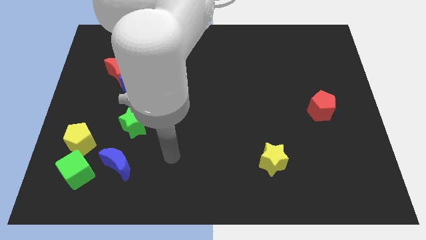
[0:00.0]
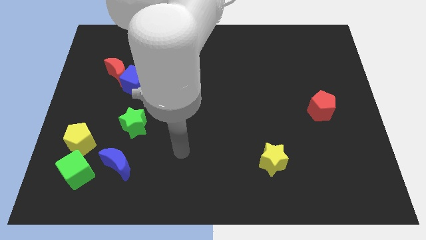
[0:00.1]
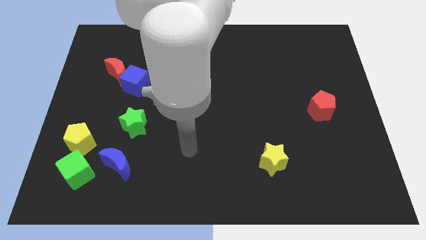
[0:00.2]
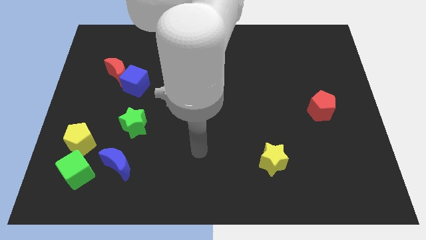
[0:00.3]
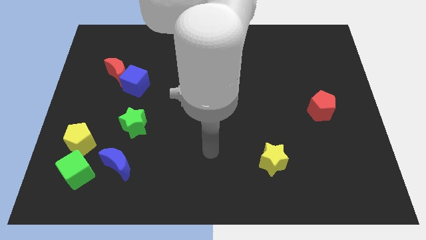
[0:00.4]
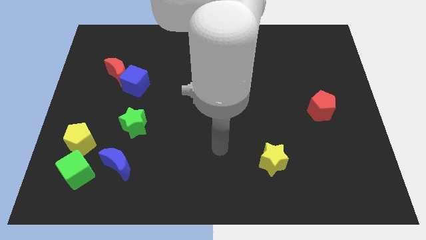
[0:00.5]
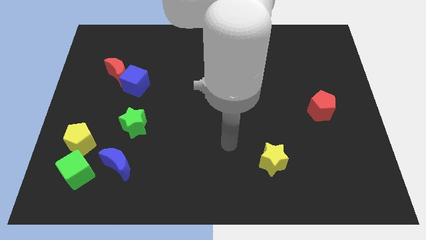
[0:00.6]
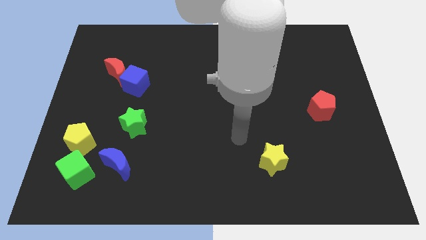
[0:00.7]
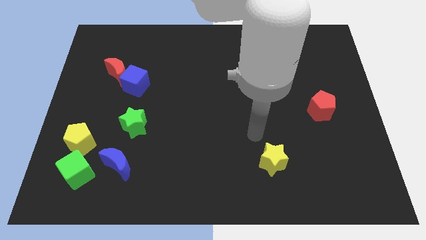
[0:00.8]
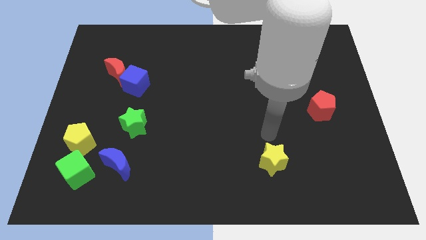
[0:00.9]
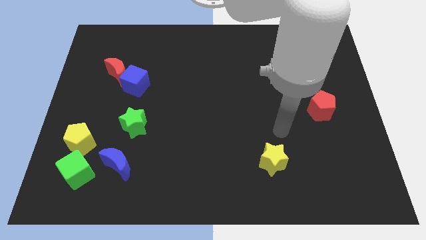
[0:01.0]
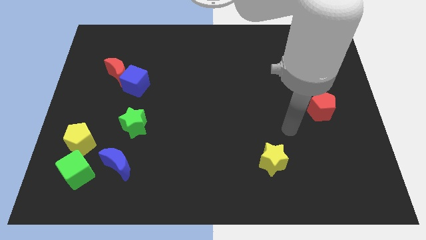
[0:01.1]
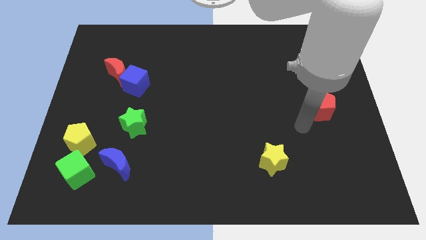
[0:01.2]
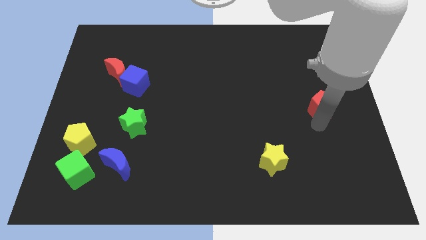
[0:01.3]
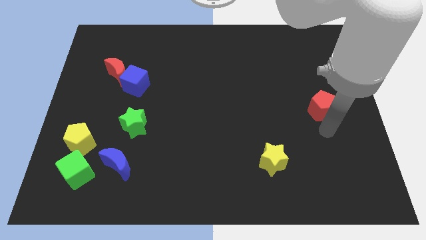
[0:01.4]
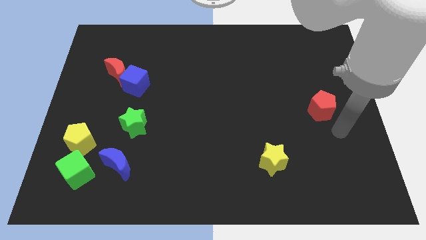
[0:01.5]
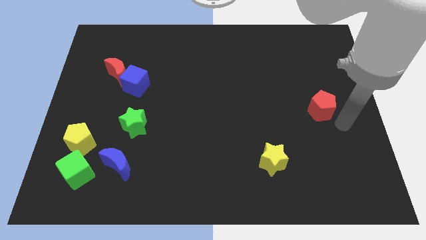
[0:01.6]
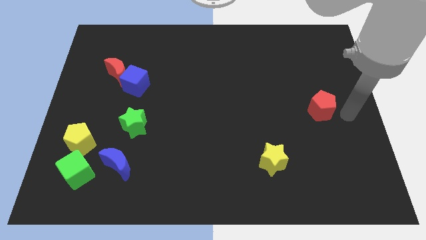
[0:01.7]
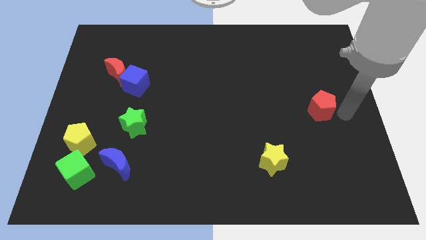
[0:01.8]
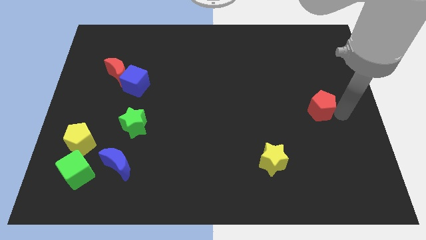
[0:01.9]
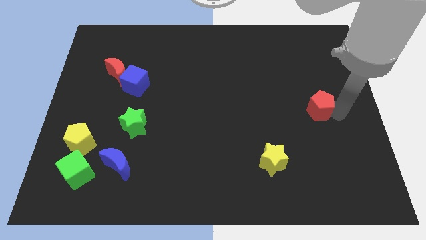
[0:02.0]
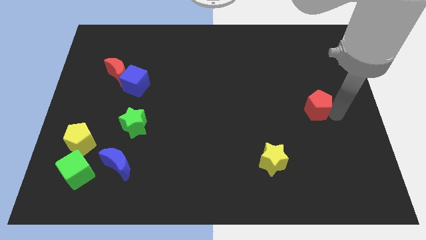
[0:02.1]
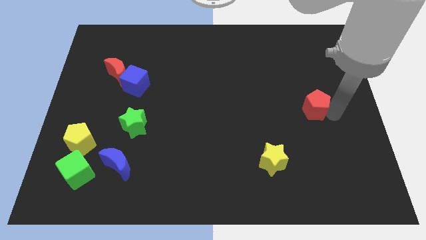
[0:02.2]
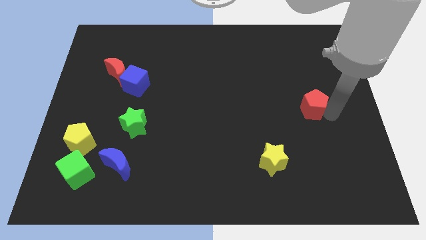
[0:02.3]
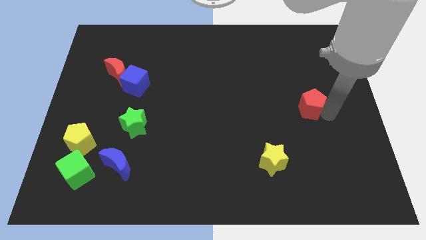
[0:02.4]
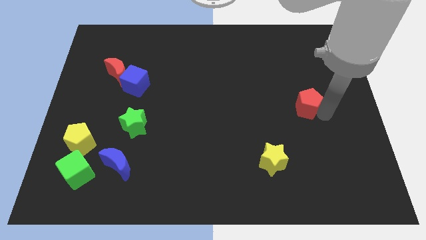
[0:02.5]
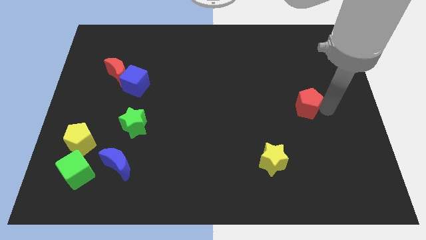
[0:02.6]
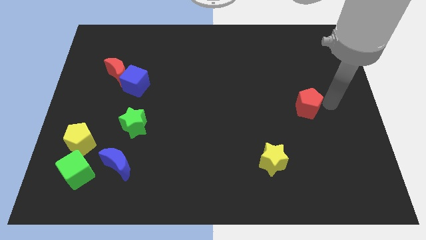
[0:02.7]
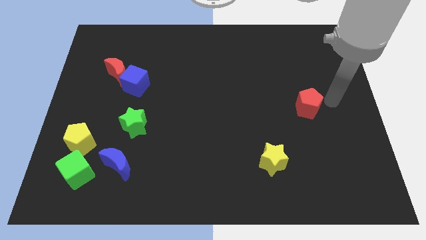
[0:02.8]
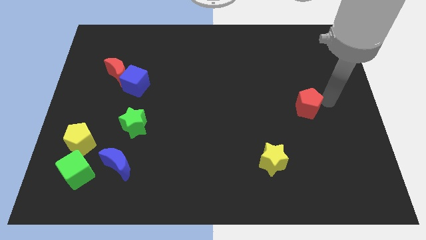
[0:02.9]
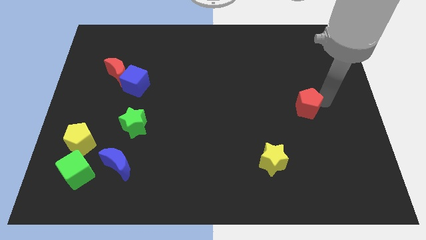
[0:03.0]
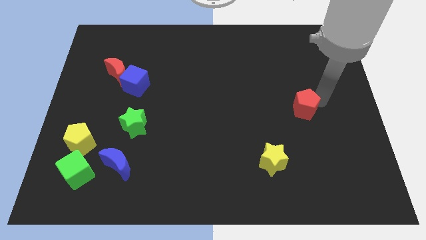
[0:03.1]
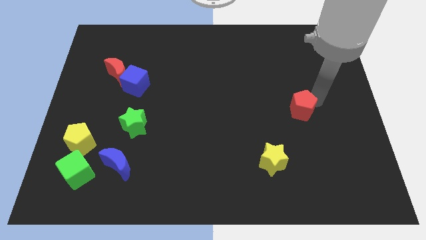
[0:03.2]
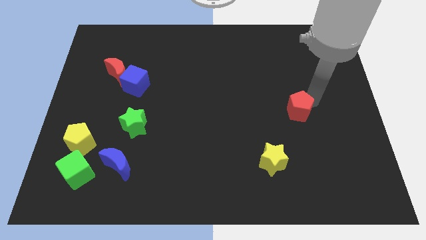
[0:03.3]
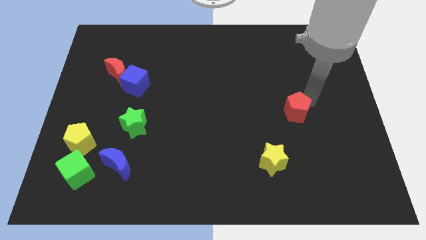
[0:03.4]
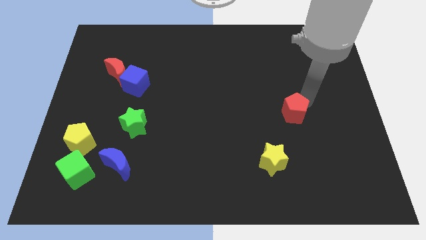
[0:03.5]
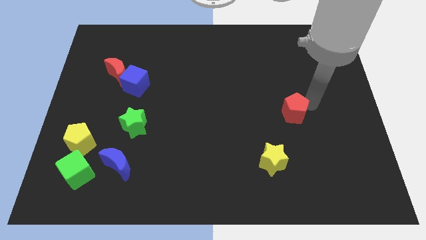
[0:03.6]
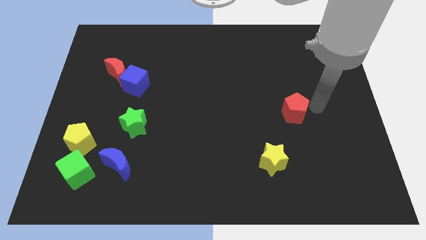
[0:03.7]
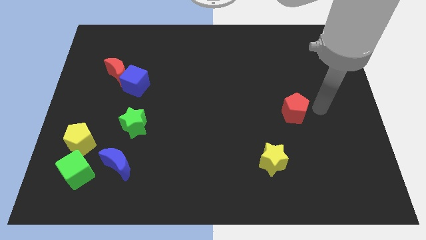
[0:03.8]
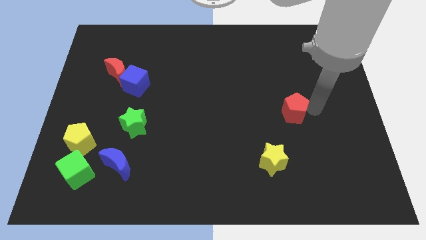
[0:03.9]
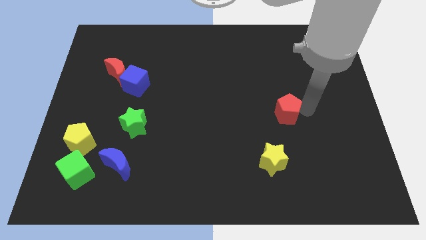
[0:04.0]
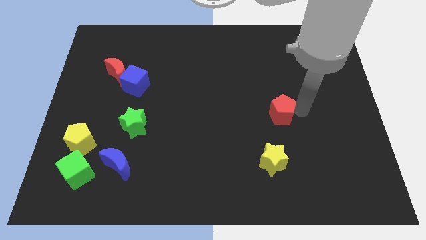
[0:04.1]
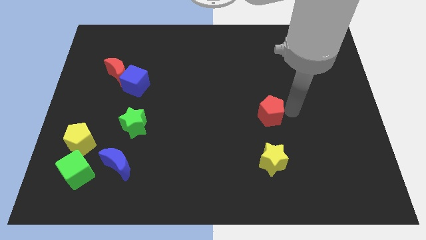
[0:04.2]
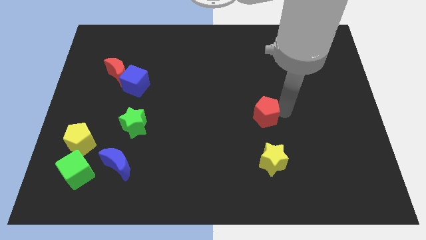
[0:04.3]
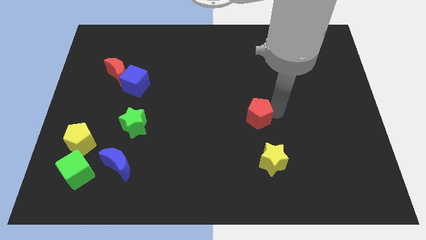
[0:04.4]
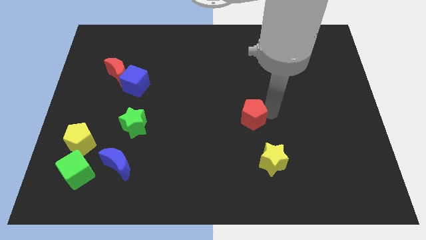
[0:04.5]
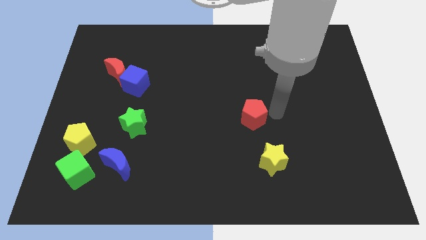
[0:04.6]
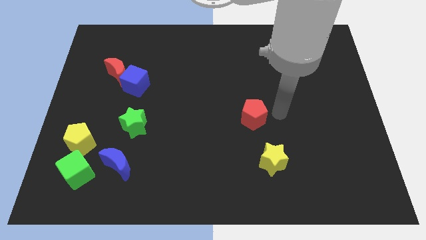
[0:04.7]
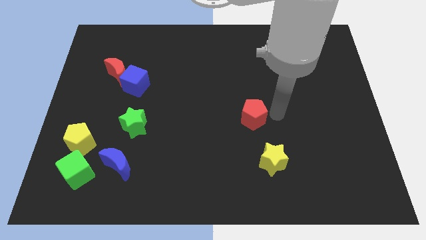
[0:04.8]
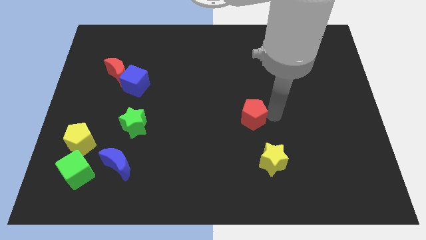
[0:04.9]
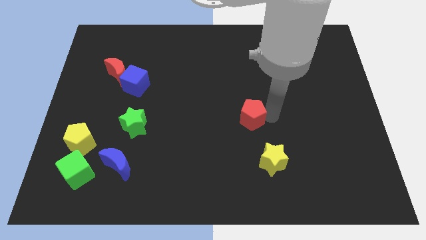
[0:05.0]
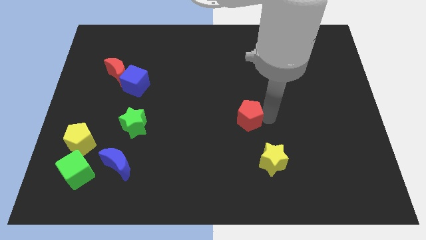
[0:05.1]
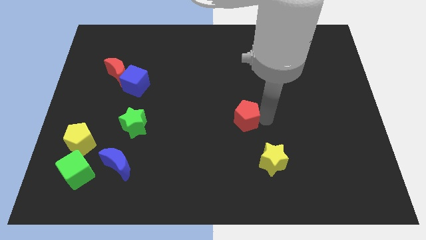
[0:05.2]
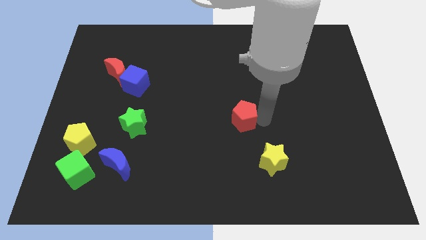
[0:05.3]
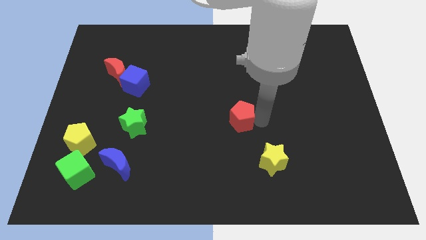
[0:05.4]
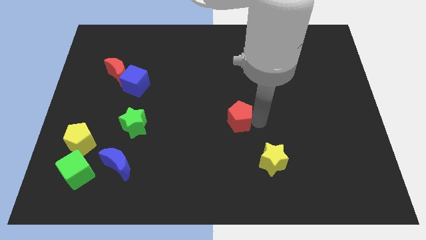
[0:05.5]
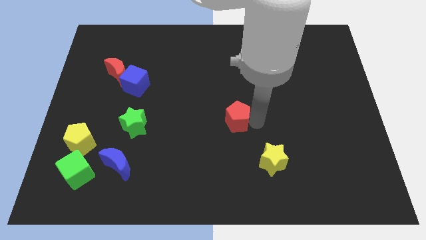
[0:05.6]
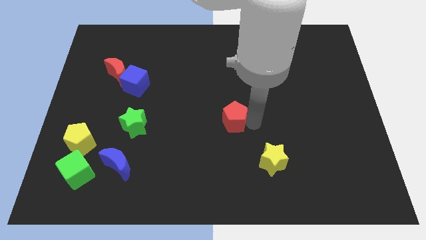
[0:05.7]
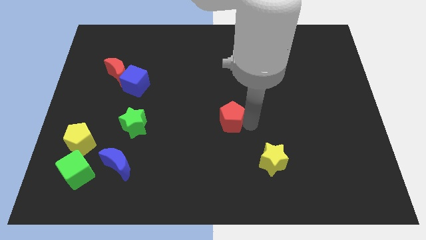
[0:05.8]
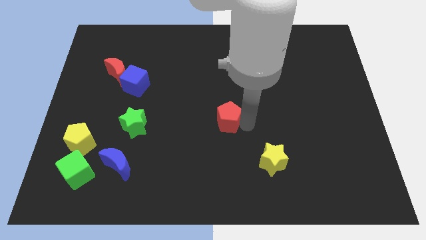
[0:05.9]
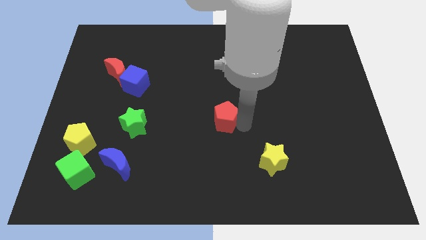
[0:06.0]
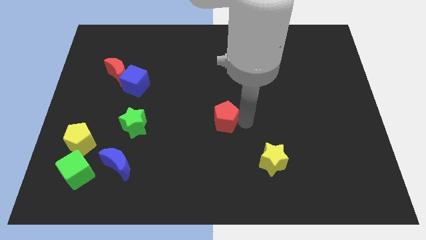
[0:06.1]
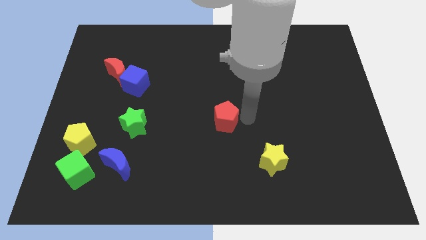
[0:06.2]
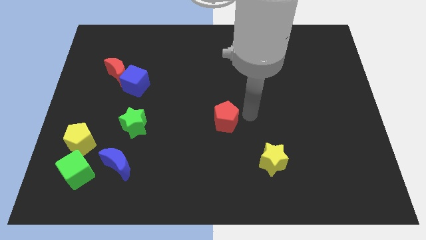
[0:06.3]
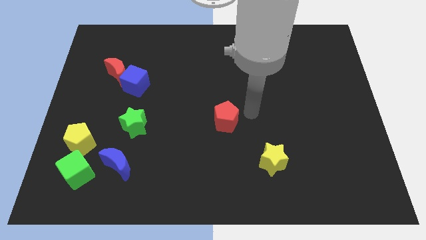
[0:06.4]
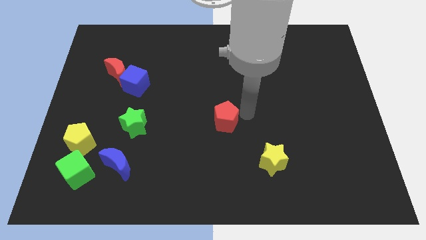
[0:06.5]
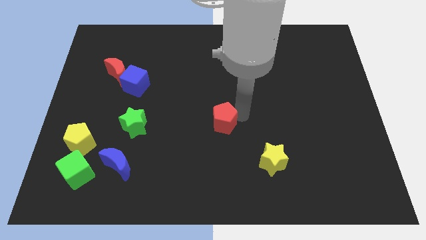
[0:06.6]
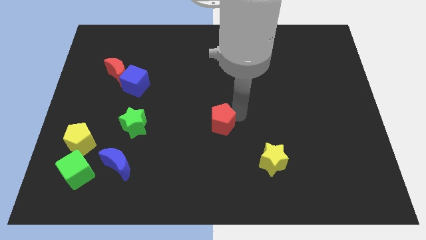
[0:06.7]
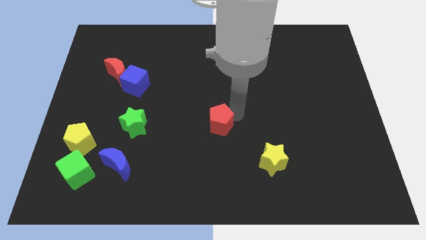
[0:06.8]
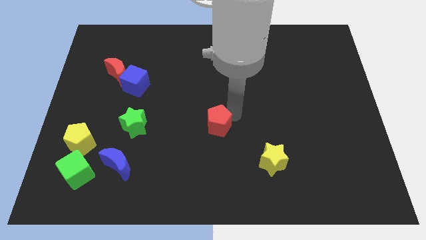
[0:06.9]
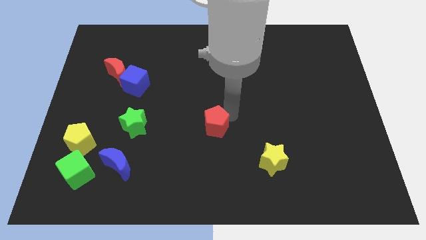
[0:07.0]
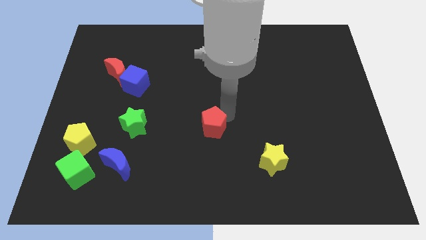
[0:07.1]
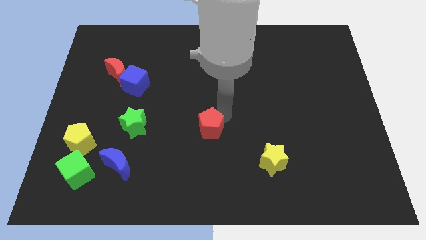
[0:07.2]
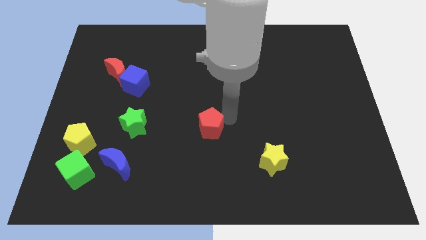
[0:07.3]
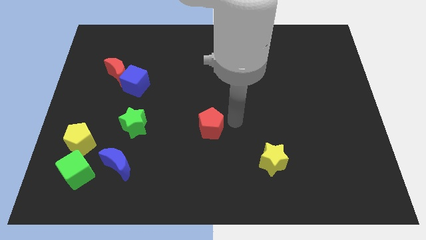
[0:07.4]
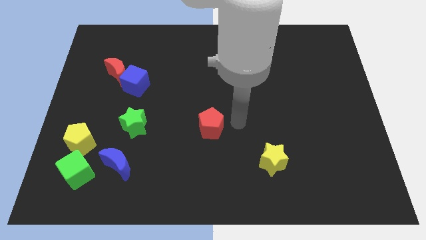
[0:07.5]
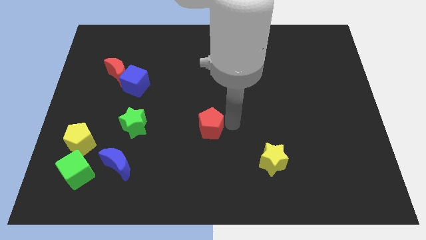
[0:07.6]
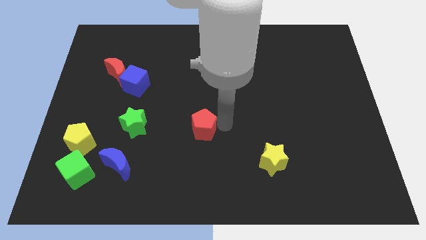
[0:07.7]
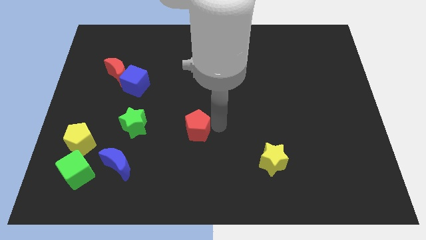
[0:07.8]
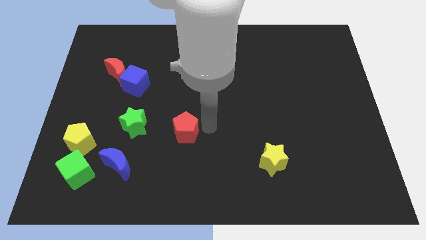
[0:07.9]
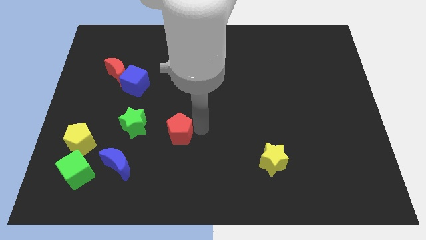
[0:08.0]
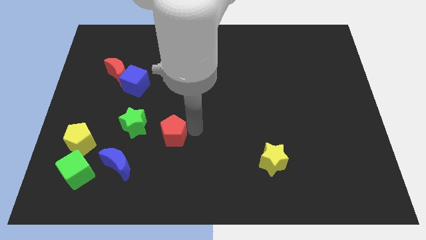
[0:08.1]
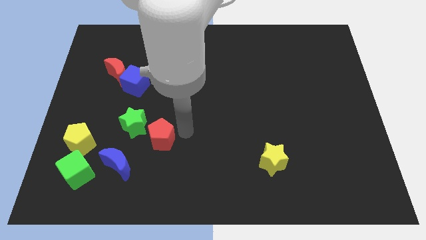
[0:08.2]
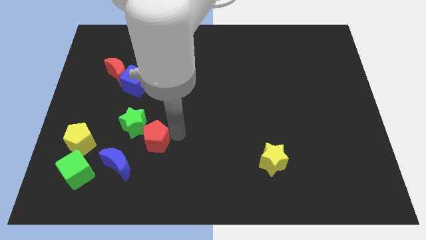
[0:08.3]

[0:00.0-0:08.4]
put the red pentagon right of the yellow pentagon
